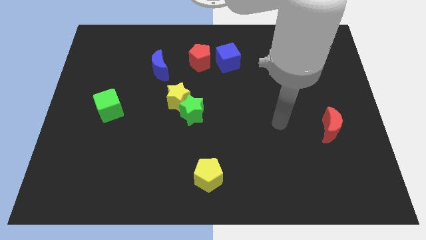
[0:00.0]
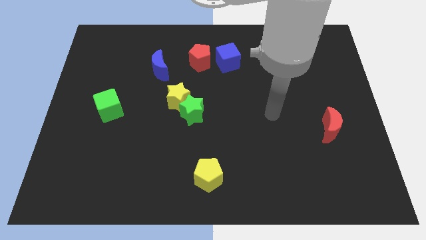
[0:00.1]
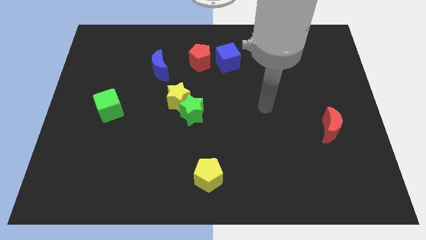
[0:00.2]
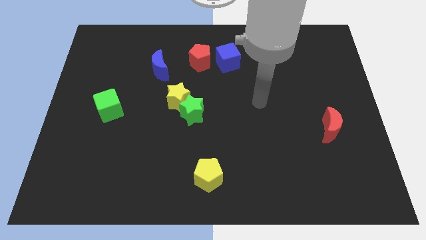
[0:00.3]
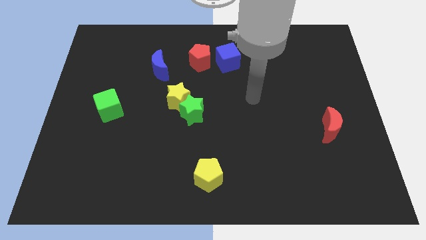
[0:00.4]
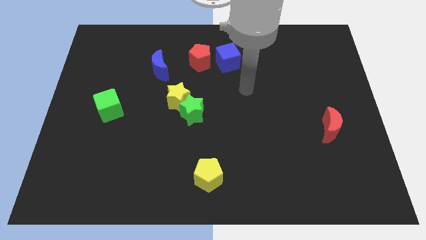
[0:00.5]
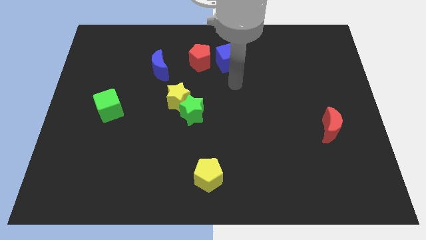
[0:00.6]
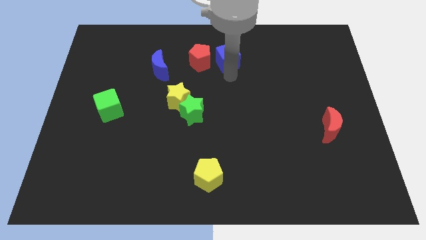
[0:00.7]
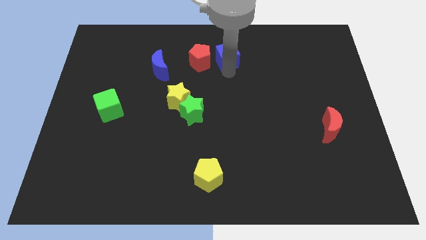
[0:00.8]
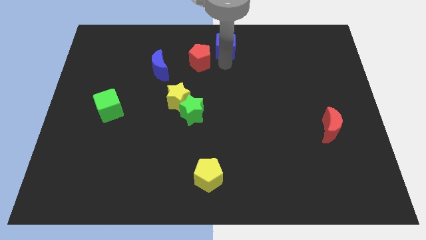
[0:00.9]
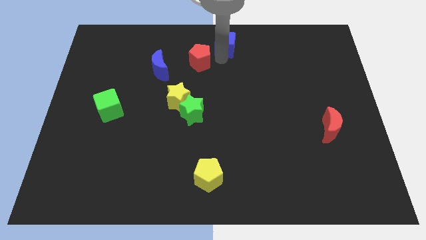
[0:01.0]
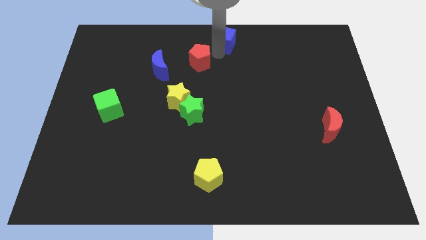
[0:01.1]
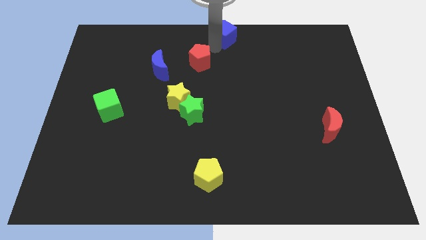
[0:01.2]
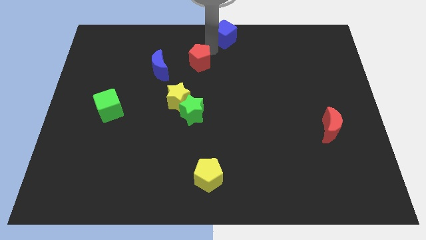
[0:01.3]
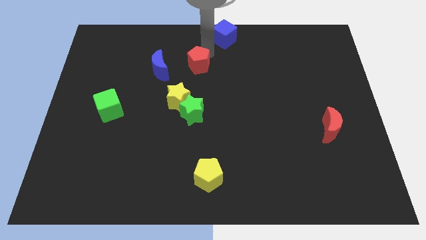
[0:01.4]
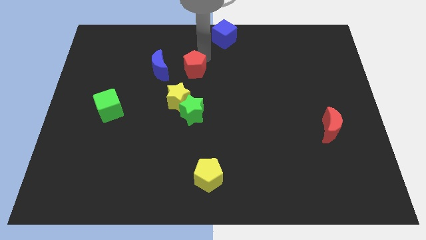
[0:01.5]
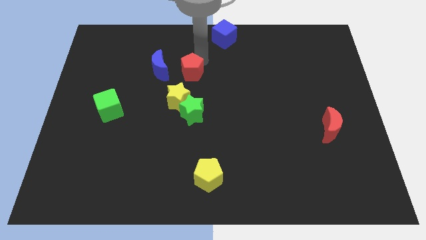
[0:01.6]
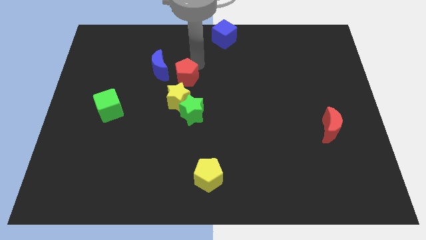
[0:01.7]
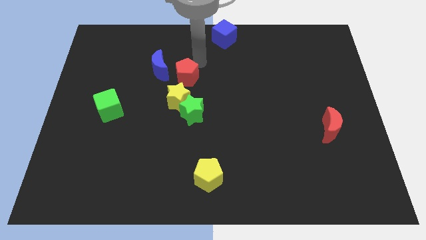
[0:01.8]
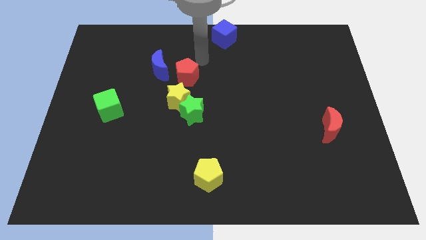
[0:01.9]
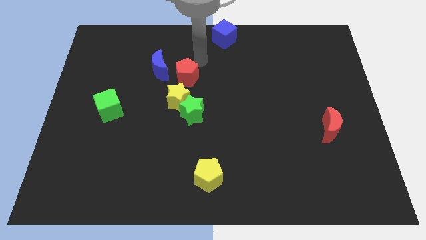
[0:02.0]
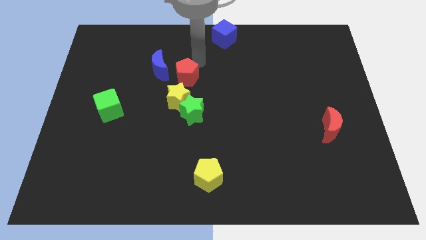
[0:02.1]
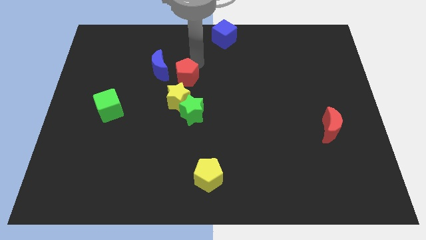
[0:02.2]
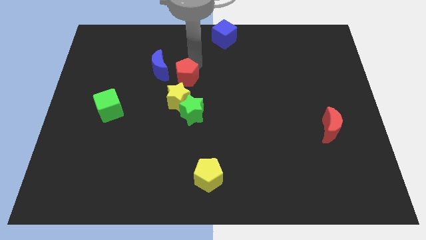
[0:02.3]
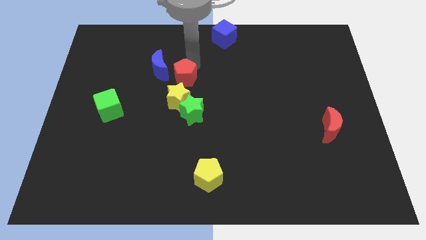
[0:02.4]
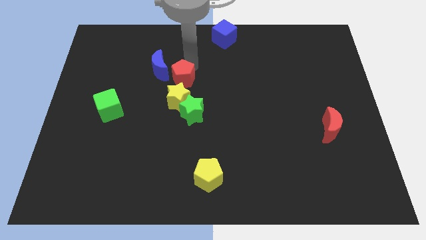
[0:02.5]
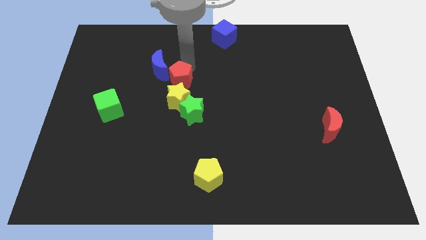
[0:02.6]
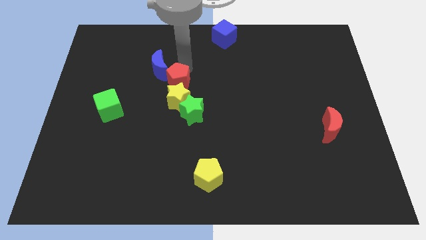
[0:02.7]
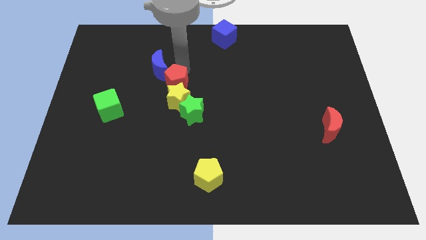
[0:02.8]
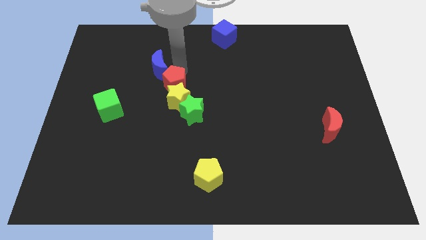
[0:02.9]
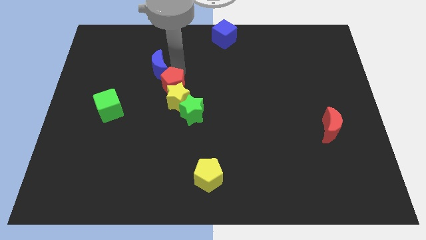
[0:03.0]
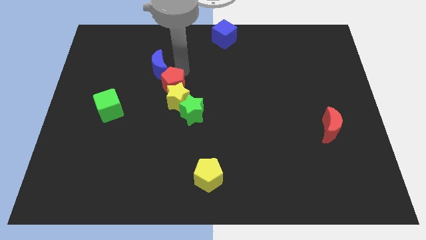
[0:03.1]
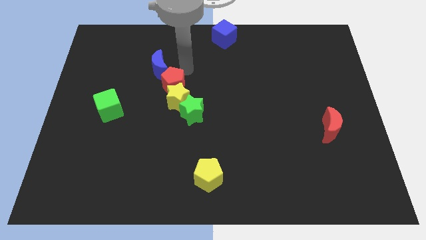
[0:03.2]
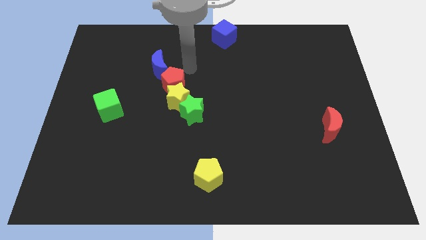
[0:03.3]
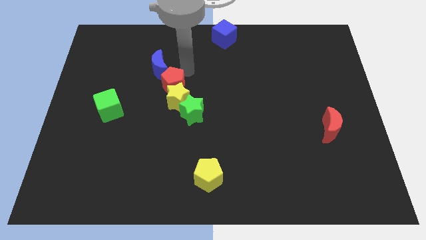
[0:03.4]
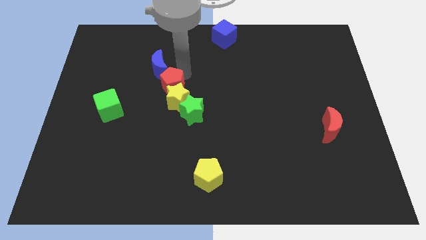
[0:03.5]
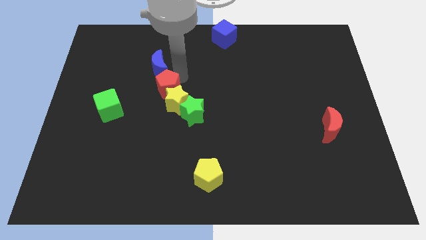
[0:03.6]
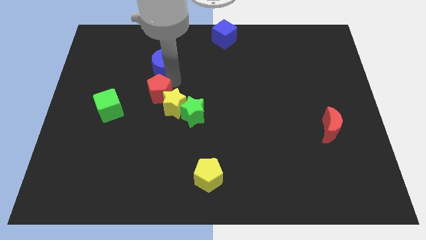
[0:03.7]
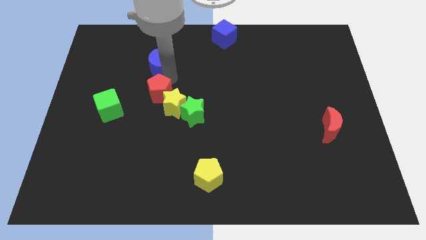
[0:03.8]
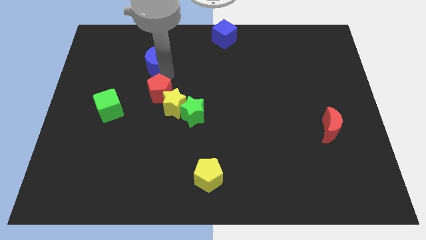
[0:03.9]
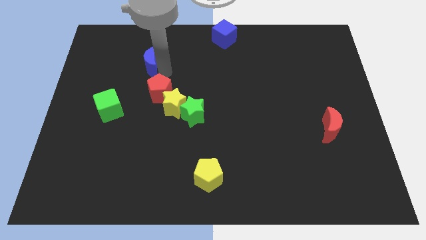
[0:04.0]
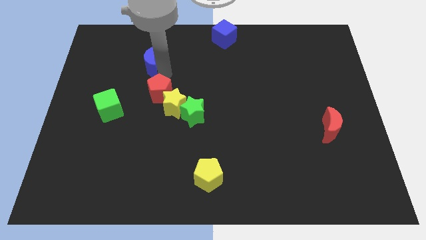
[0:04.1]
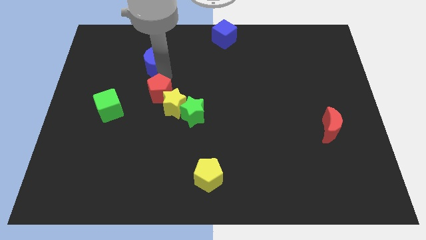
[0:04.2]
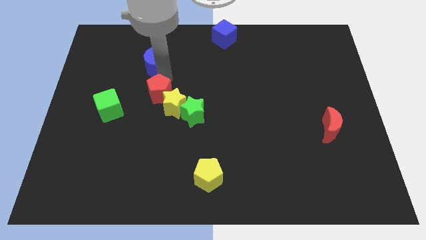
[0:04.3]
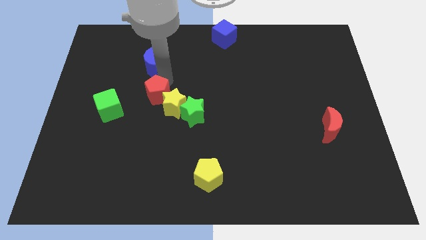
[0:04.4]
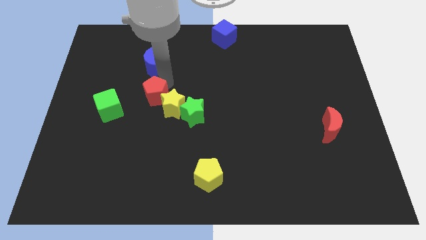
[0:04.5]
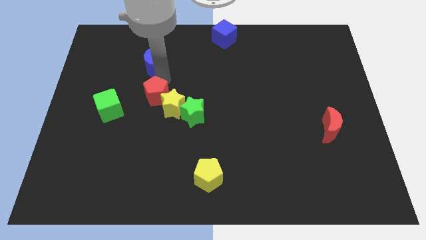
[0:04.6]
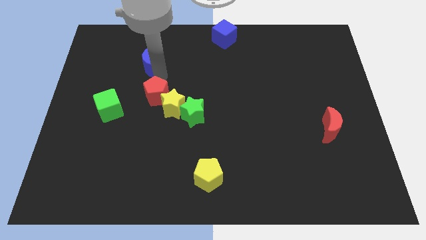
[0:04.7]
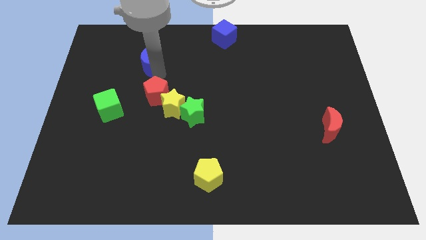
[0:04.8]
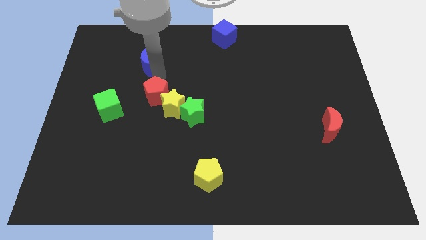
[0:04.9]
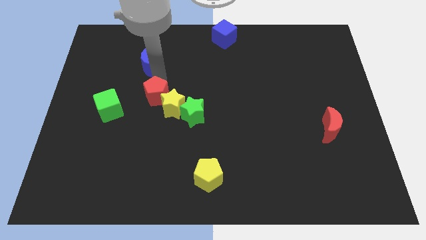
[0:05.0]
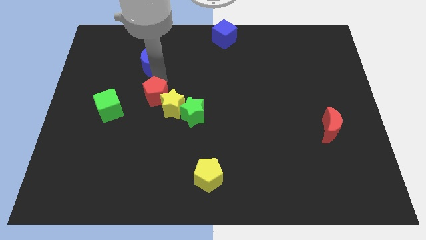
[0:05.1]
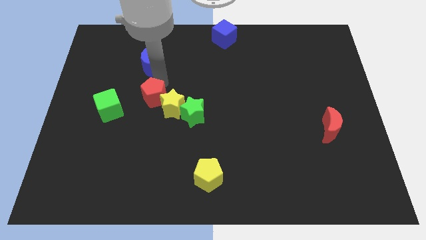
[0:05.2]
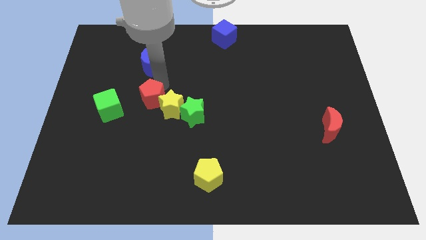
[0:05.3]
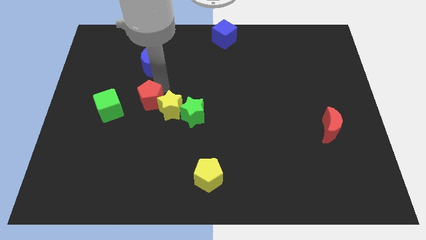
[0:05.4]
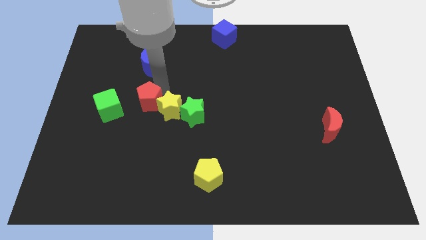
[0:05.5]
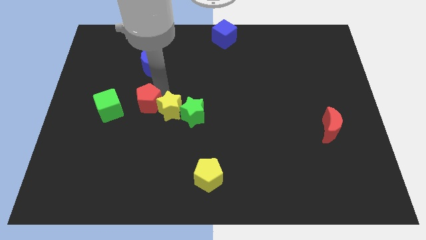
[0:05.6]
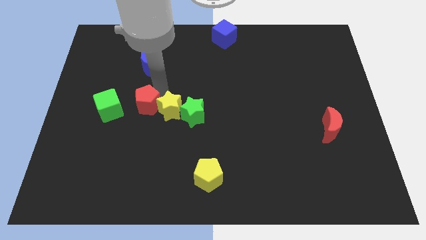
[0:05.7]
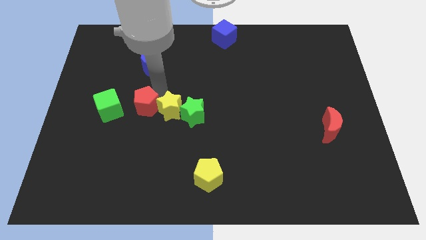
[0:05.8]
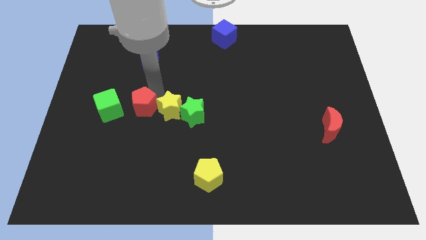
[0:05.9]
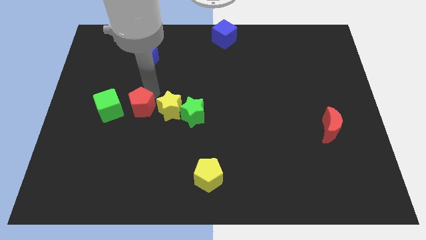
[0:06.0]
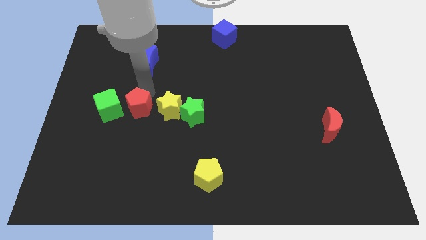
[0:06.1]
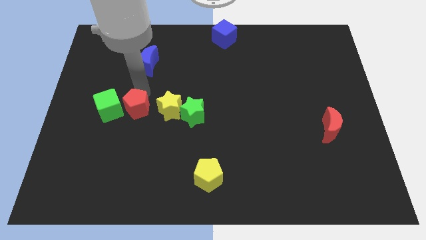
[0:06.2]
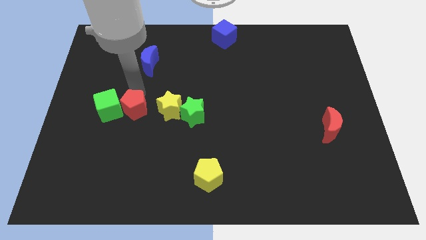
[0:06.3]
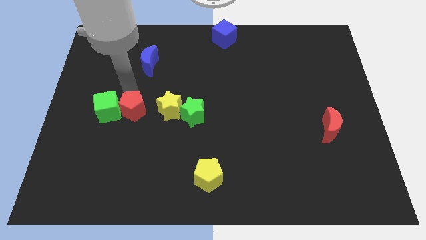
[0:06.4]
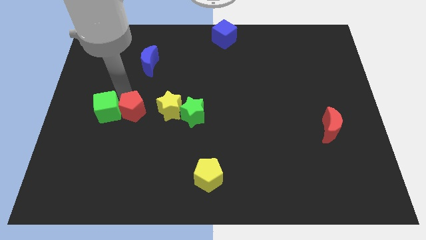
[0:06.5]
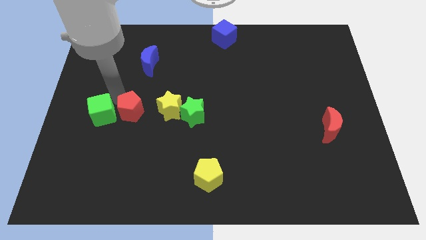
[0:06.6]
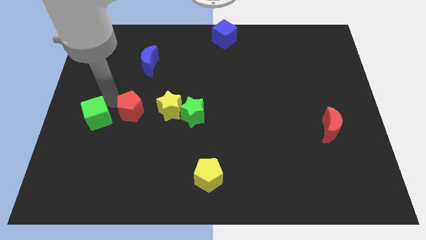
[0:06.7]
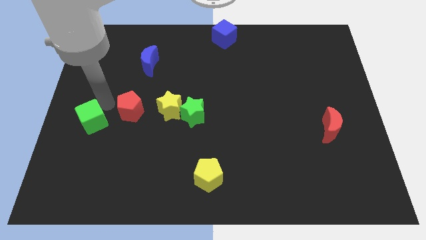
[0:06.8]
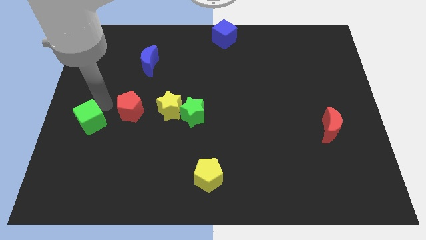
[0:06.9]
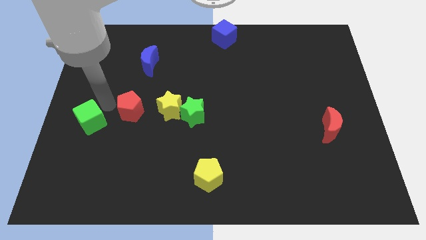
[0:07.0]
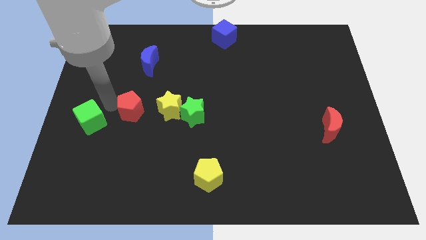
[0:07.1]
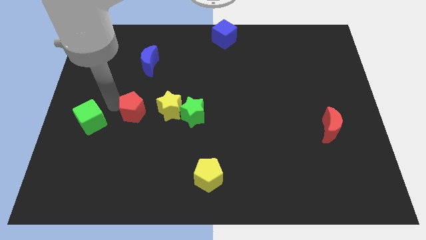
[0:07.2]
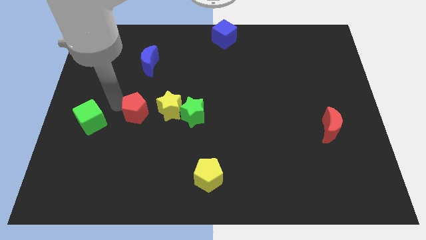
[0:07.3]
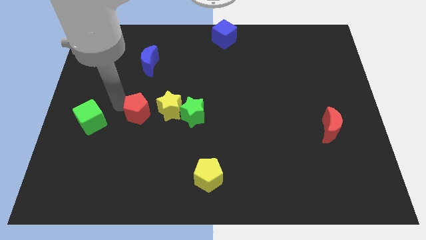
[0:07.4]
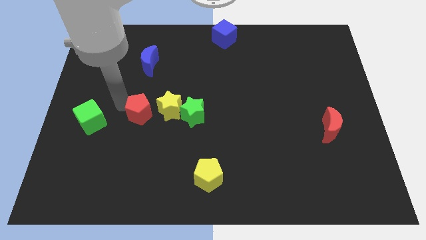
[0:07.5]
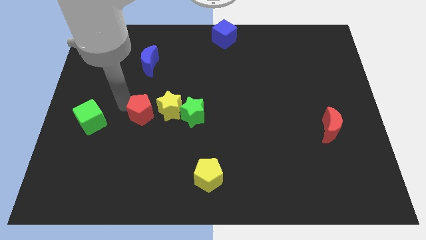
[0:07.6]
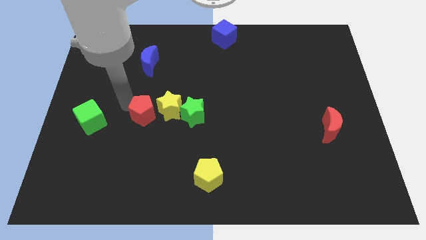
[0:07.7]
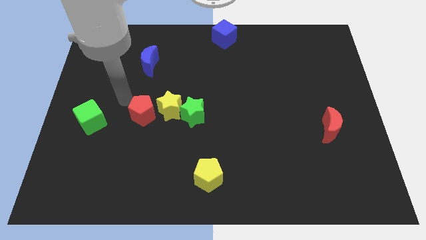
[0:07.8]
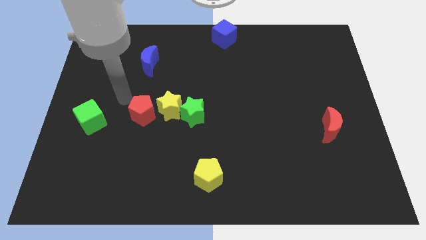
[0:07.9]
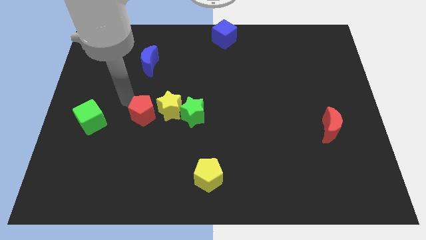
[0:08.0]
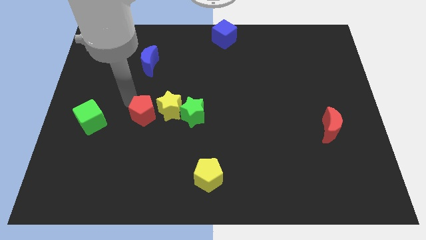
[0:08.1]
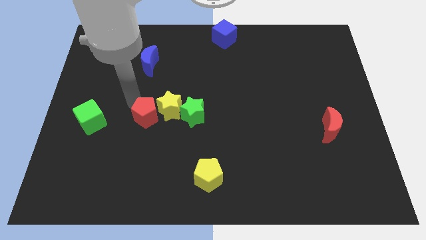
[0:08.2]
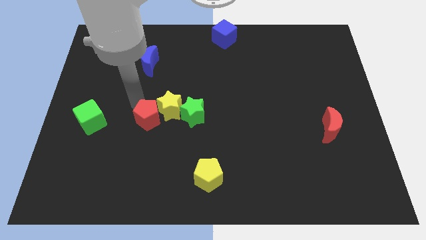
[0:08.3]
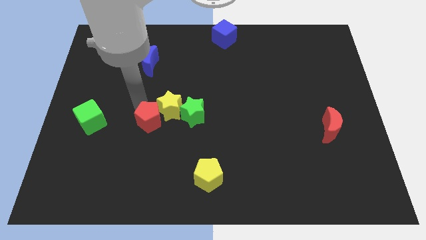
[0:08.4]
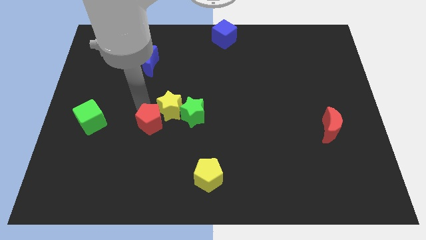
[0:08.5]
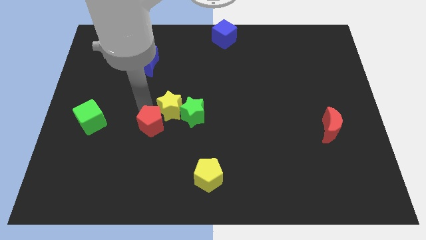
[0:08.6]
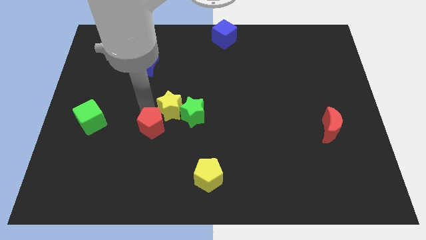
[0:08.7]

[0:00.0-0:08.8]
put the red pentagon to the bottom left of the green star
